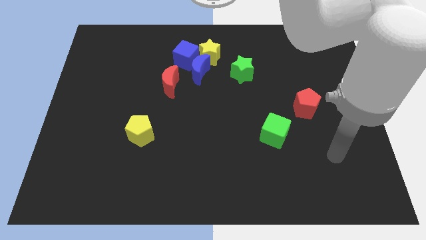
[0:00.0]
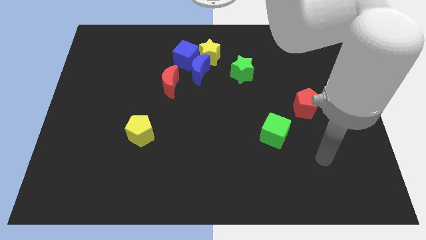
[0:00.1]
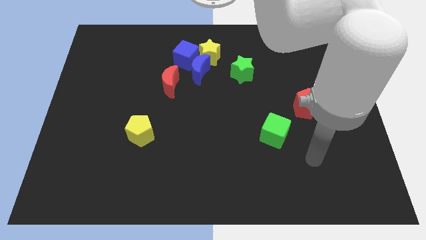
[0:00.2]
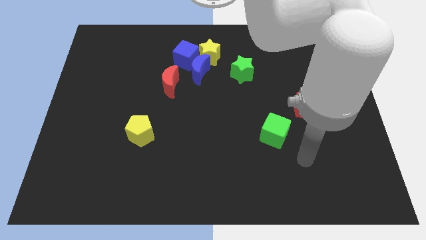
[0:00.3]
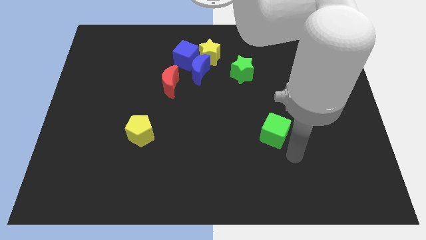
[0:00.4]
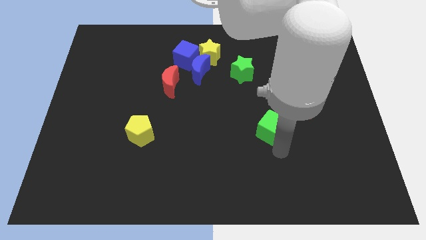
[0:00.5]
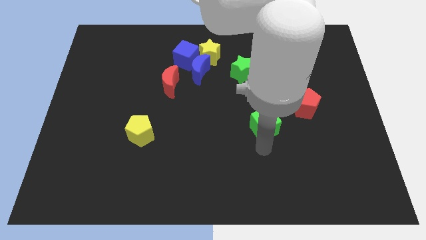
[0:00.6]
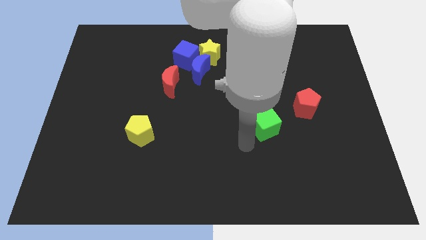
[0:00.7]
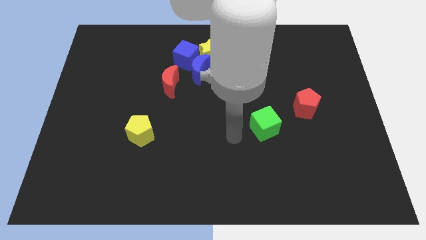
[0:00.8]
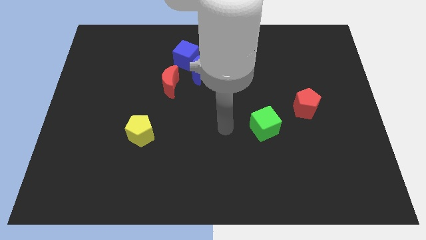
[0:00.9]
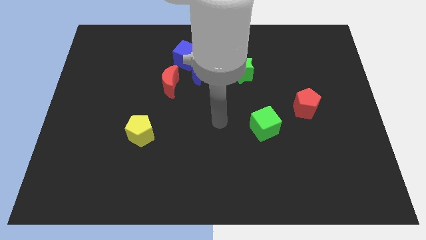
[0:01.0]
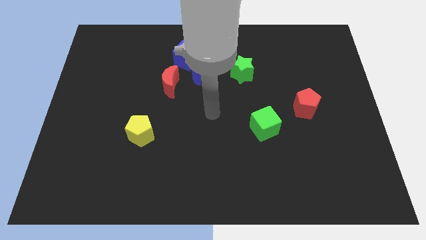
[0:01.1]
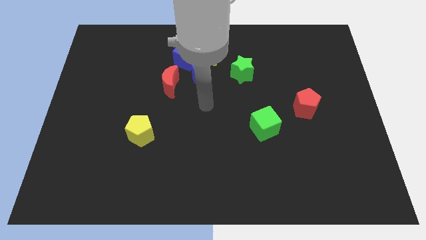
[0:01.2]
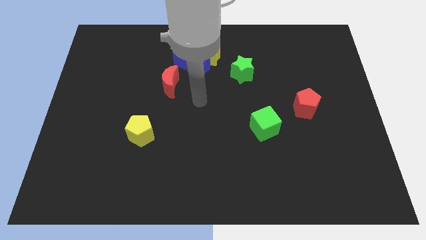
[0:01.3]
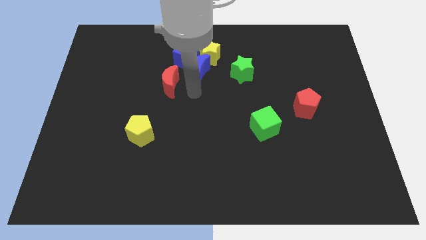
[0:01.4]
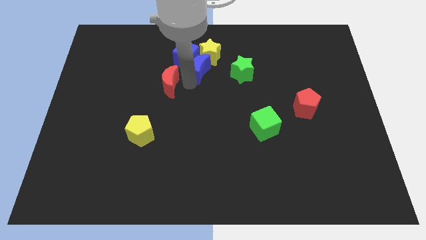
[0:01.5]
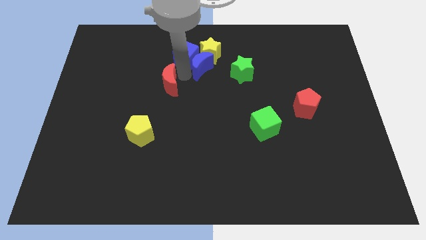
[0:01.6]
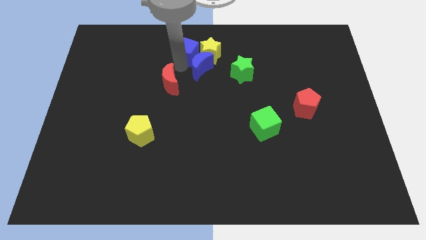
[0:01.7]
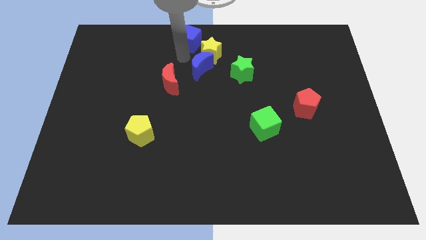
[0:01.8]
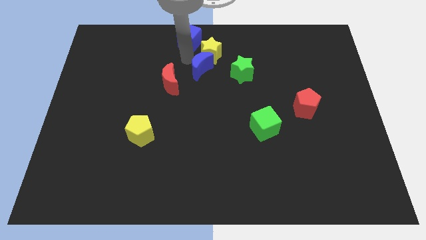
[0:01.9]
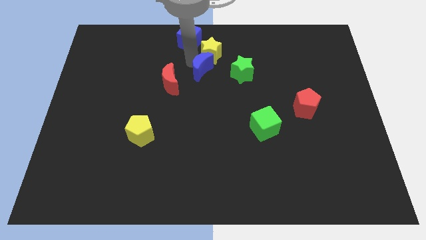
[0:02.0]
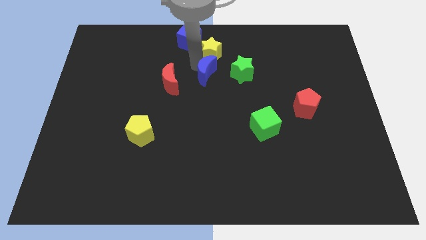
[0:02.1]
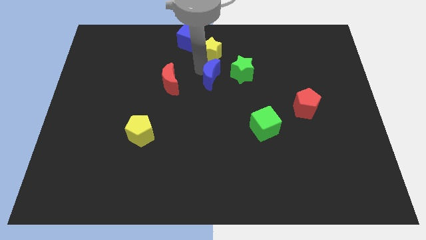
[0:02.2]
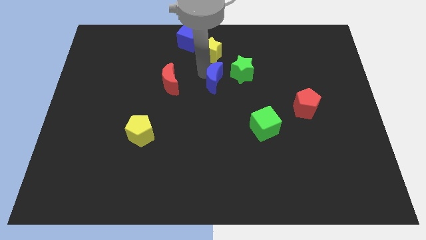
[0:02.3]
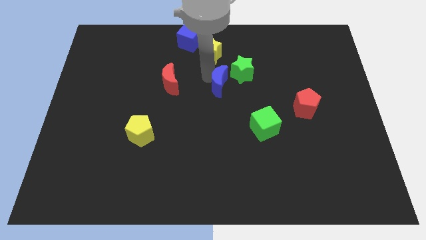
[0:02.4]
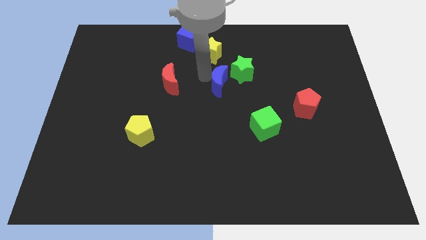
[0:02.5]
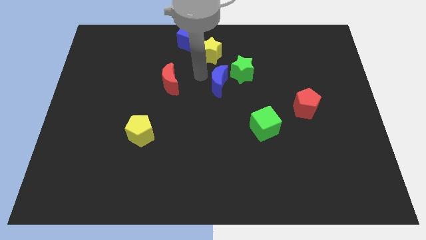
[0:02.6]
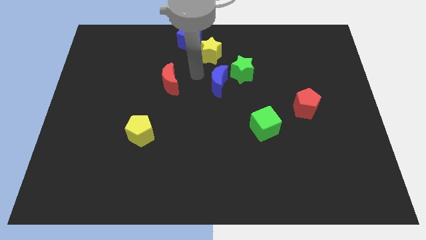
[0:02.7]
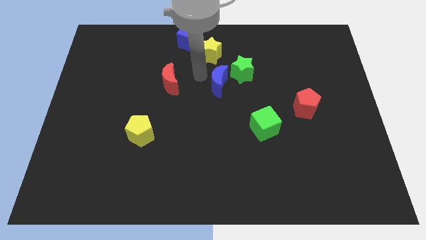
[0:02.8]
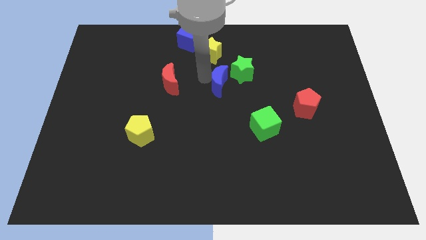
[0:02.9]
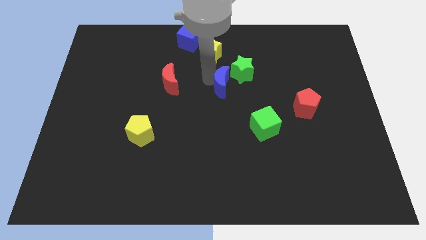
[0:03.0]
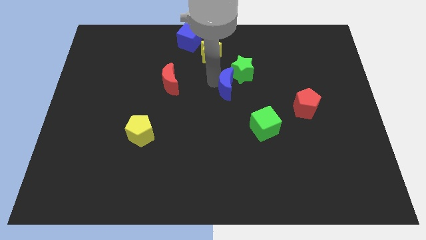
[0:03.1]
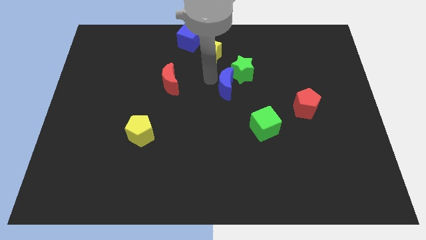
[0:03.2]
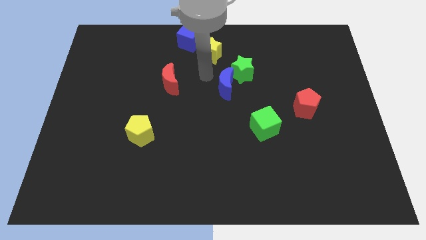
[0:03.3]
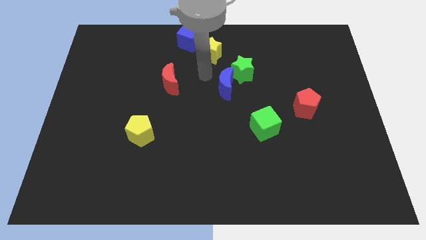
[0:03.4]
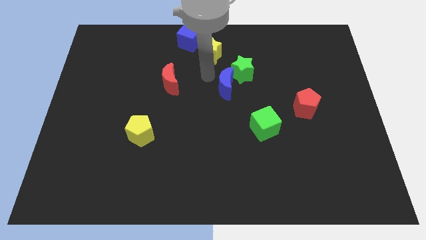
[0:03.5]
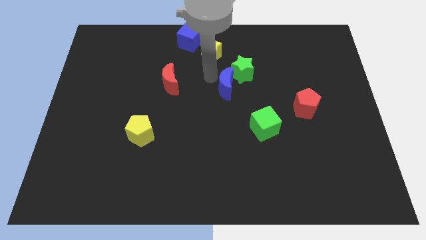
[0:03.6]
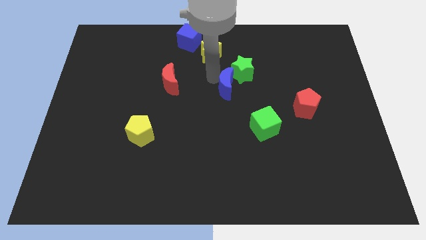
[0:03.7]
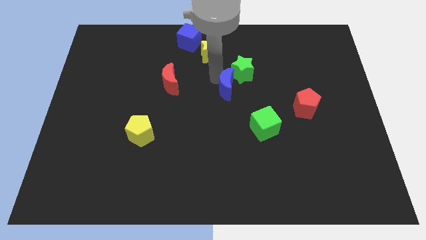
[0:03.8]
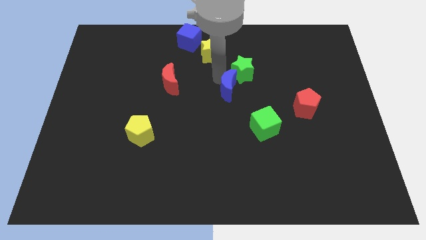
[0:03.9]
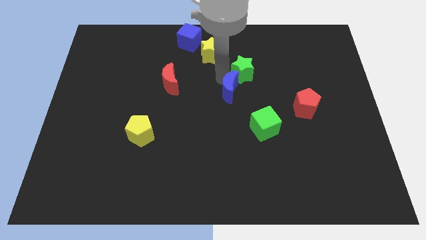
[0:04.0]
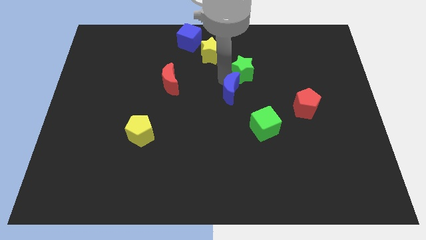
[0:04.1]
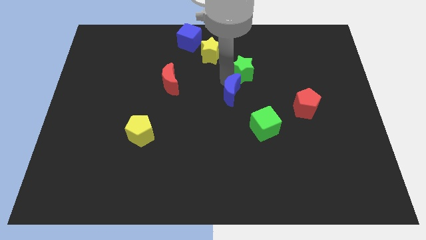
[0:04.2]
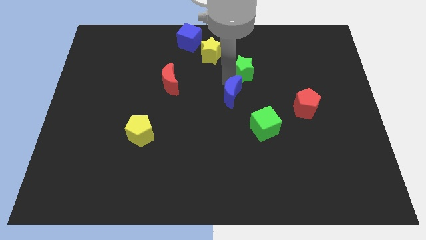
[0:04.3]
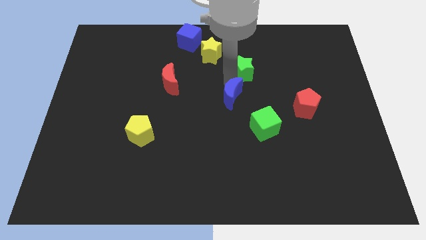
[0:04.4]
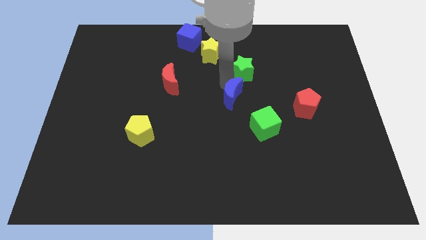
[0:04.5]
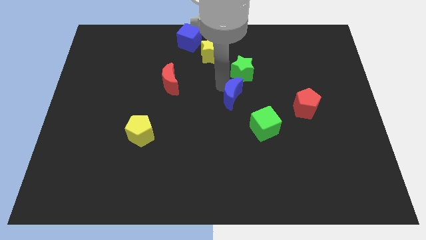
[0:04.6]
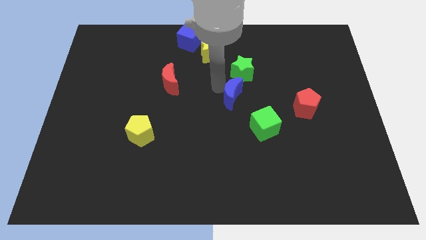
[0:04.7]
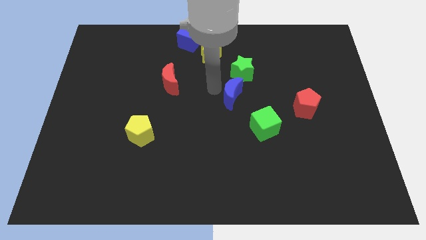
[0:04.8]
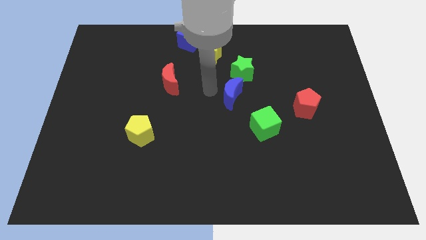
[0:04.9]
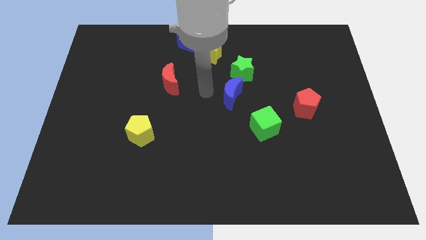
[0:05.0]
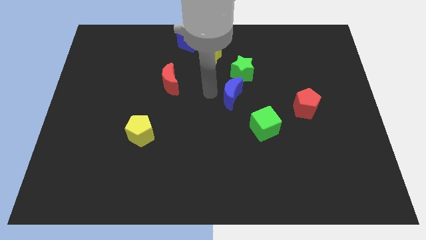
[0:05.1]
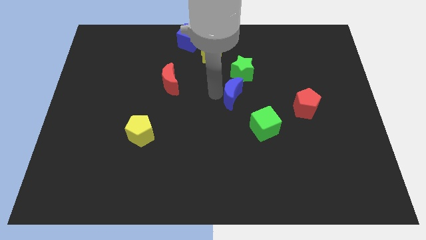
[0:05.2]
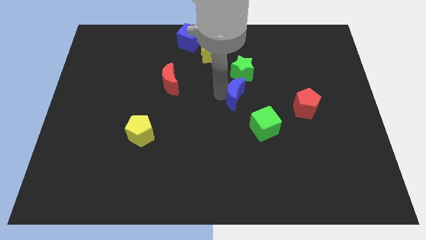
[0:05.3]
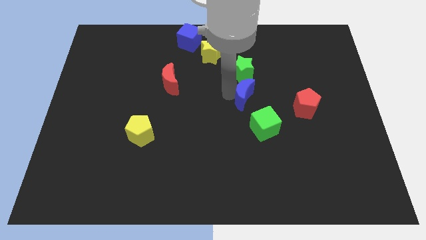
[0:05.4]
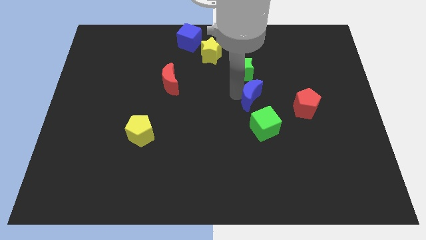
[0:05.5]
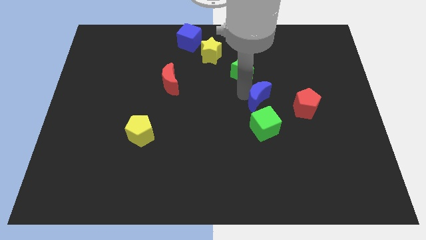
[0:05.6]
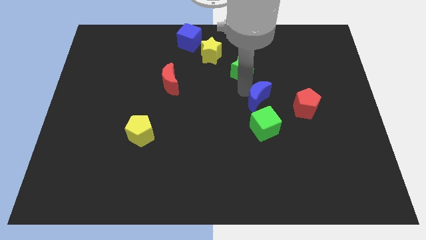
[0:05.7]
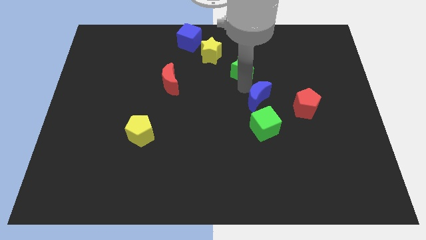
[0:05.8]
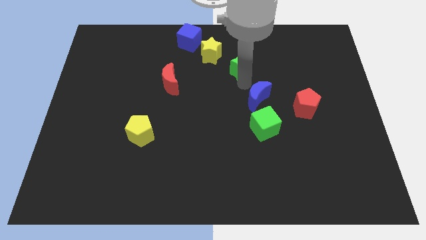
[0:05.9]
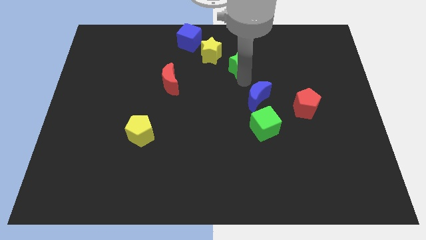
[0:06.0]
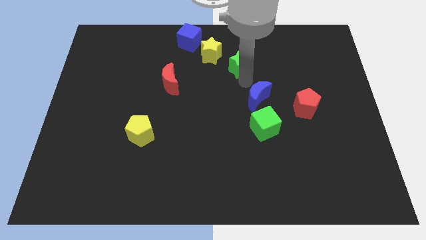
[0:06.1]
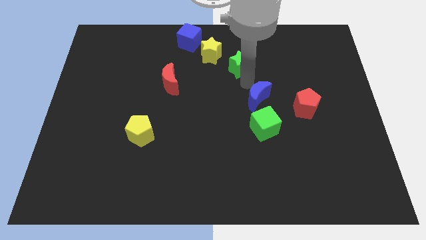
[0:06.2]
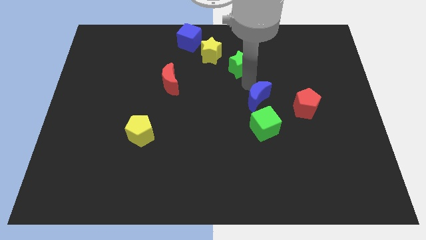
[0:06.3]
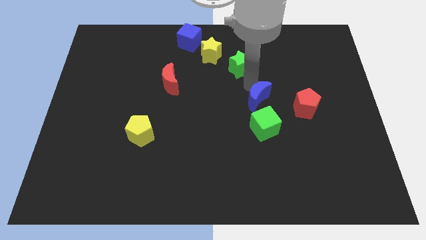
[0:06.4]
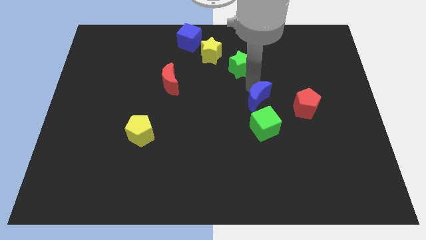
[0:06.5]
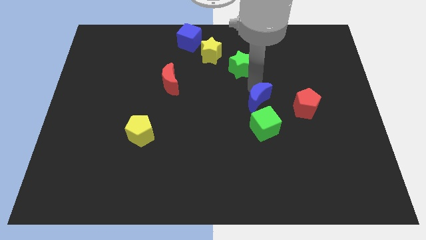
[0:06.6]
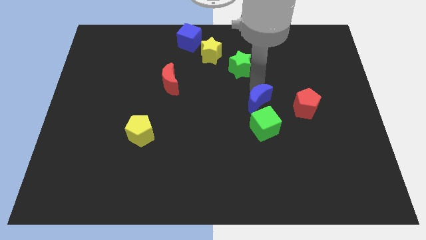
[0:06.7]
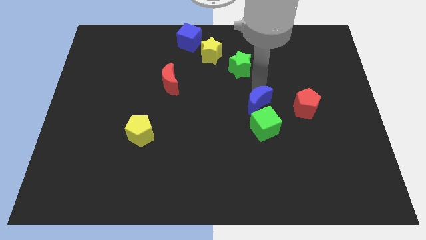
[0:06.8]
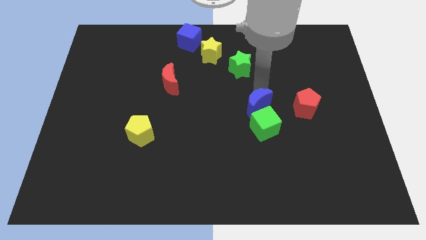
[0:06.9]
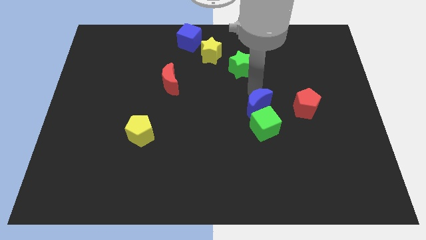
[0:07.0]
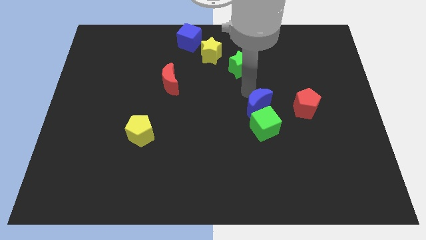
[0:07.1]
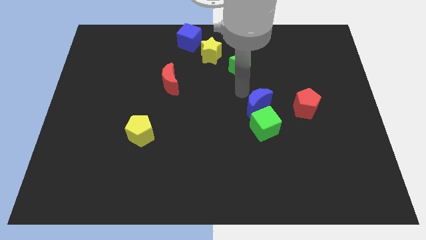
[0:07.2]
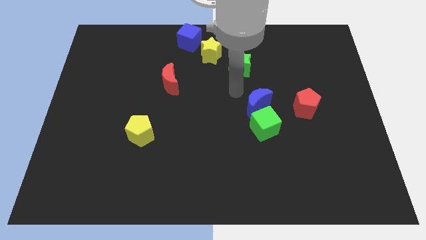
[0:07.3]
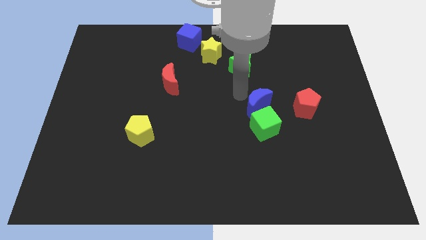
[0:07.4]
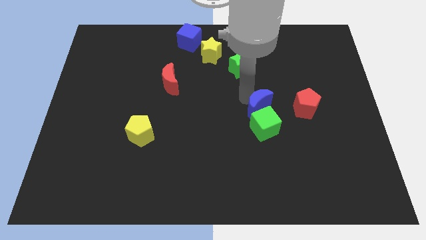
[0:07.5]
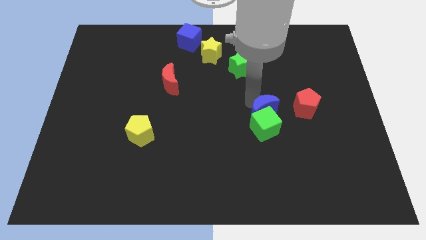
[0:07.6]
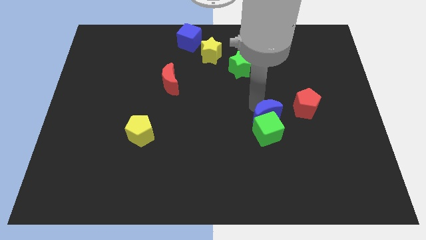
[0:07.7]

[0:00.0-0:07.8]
push the blue moon downwards and right diagonally

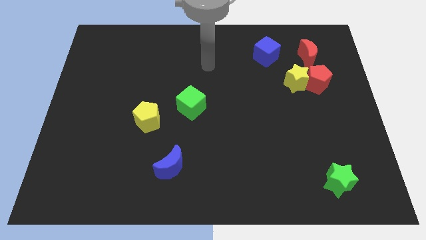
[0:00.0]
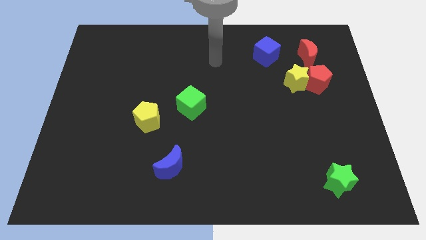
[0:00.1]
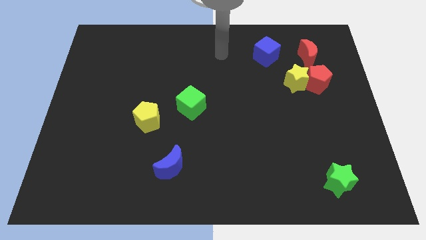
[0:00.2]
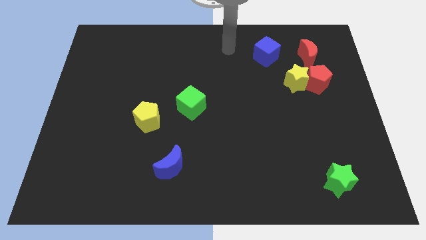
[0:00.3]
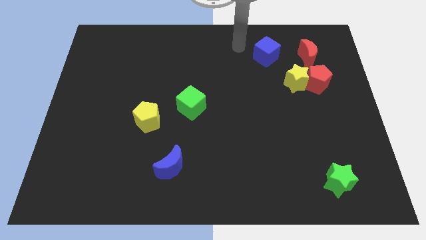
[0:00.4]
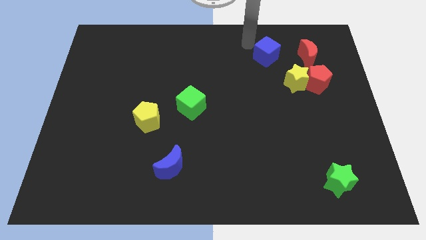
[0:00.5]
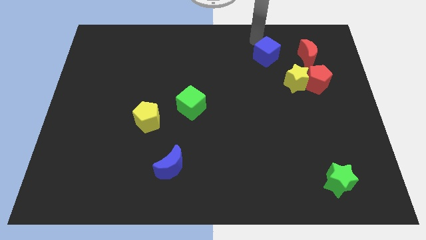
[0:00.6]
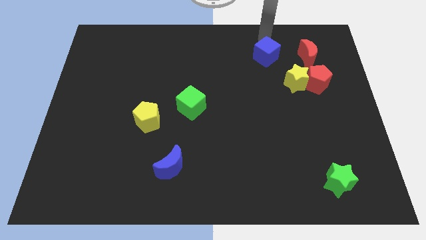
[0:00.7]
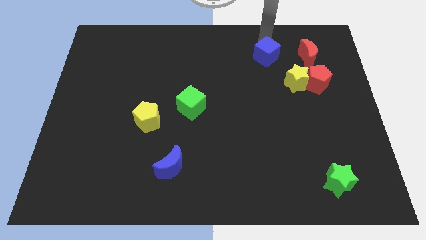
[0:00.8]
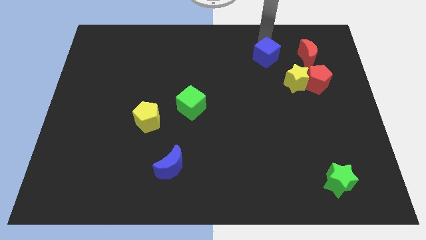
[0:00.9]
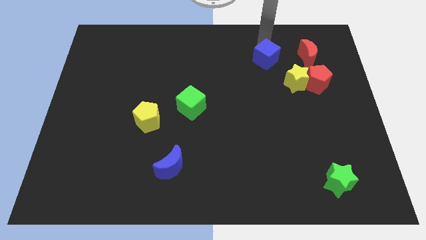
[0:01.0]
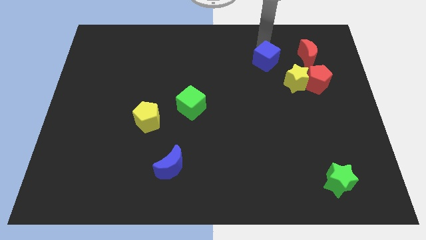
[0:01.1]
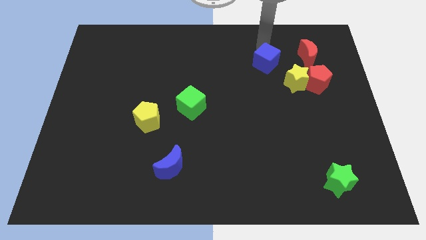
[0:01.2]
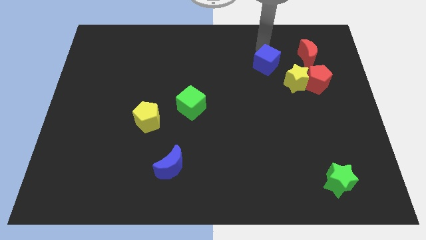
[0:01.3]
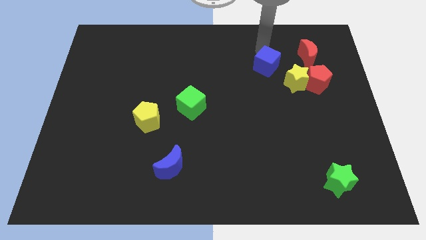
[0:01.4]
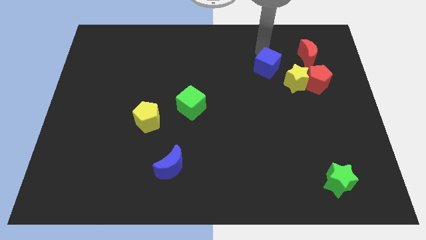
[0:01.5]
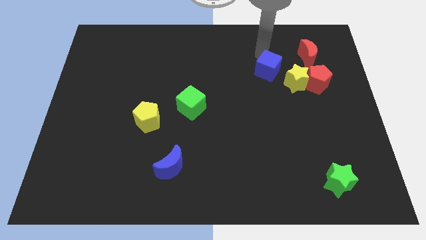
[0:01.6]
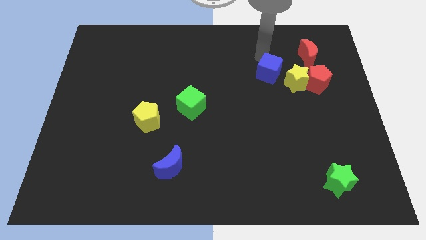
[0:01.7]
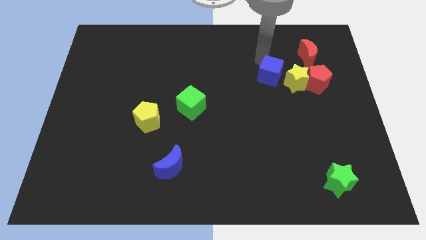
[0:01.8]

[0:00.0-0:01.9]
move the blue cube a little bit down
